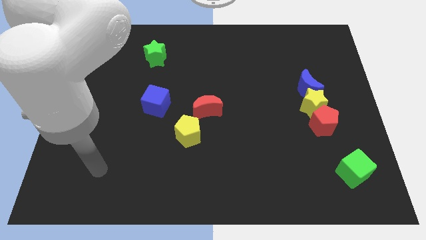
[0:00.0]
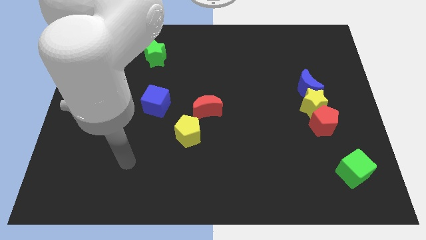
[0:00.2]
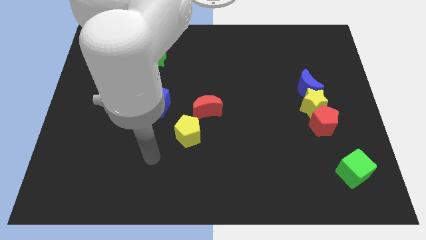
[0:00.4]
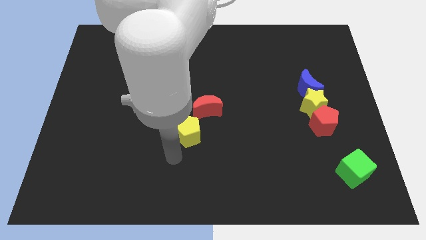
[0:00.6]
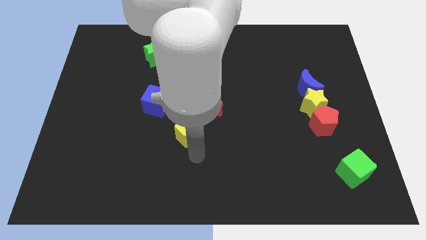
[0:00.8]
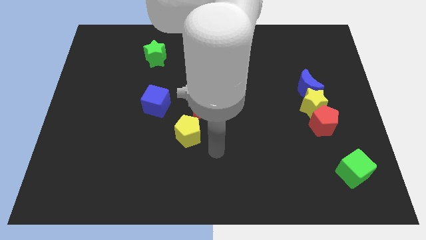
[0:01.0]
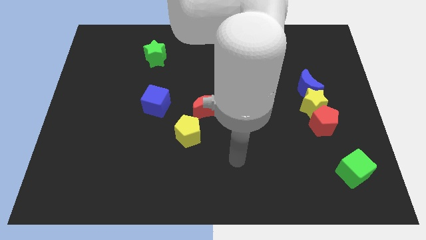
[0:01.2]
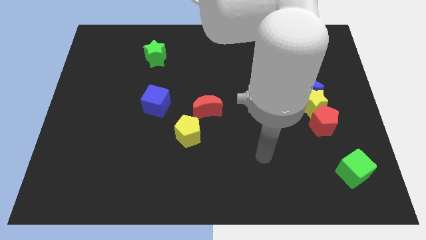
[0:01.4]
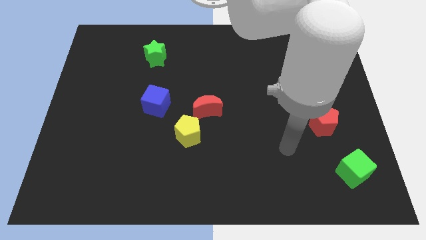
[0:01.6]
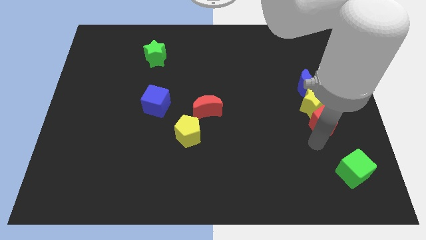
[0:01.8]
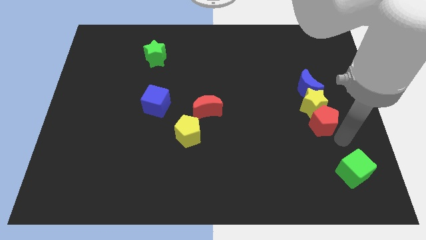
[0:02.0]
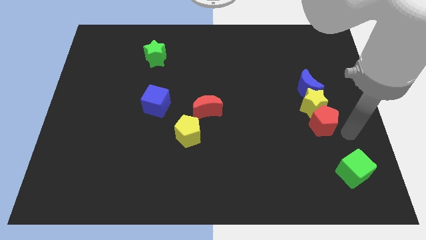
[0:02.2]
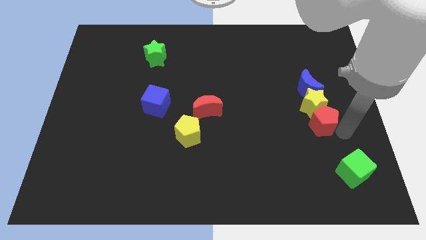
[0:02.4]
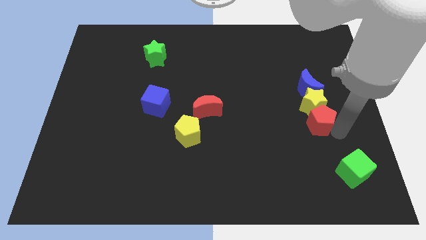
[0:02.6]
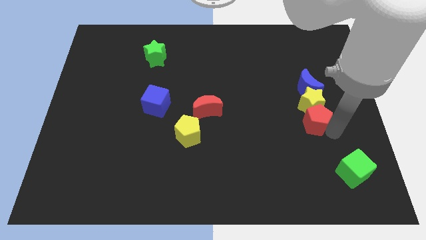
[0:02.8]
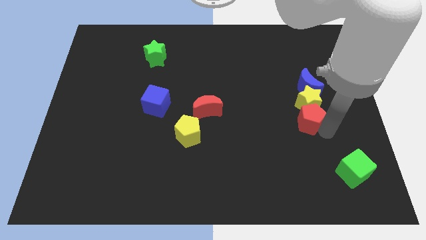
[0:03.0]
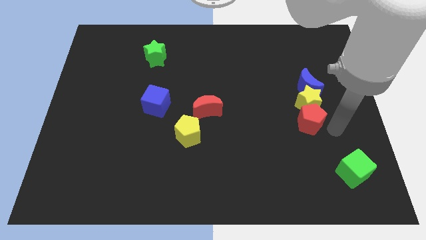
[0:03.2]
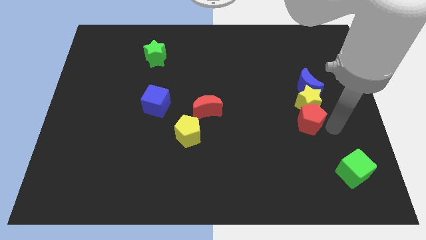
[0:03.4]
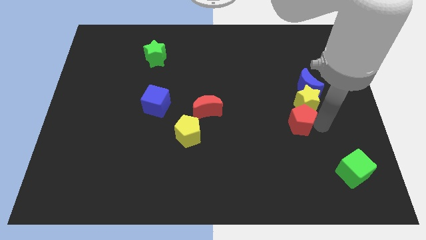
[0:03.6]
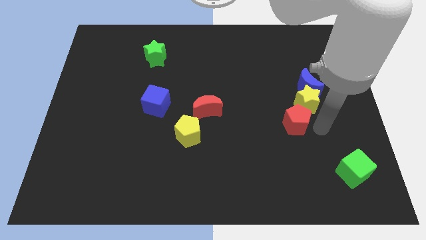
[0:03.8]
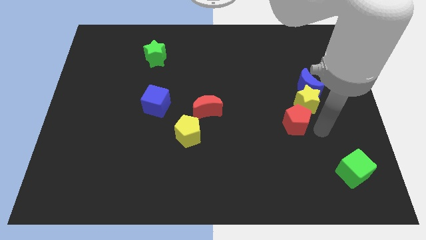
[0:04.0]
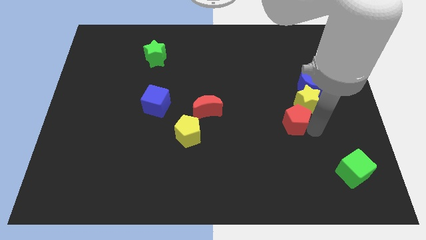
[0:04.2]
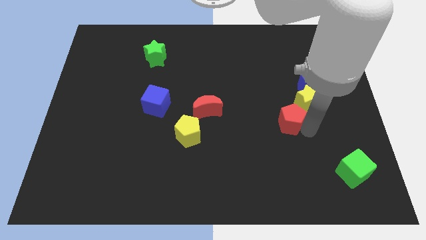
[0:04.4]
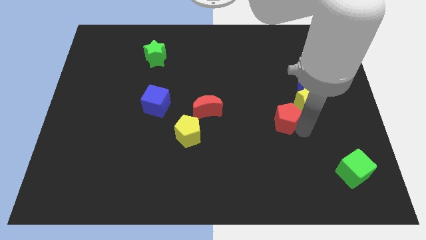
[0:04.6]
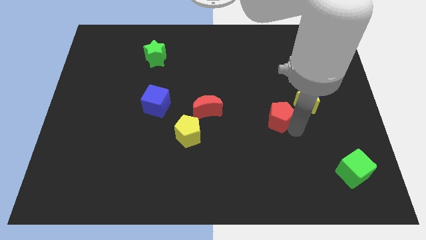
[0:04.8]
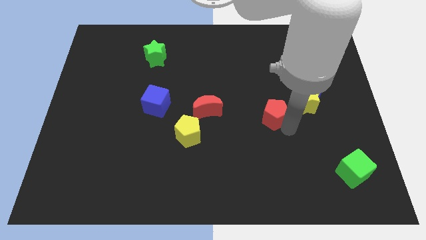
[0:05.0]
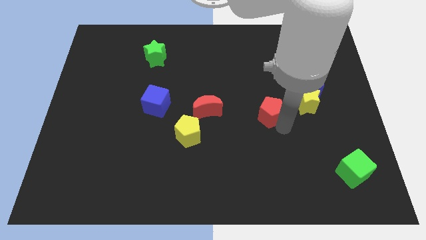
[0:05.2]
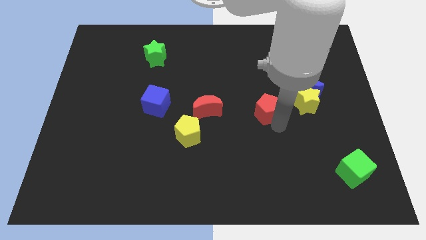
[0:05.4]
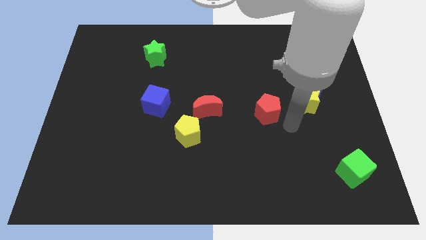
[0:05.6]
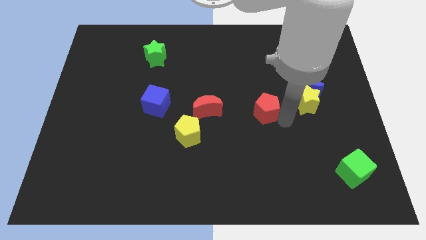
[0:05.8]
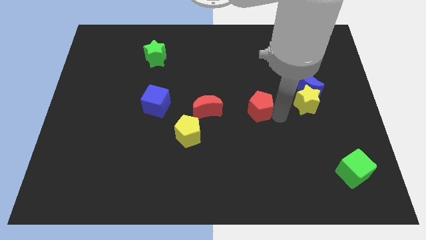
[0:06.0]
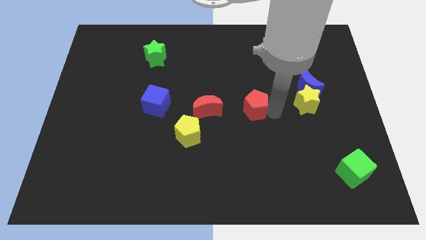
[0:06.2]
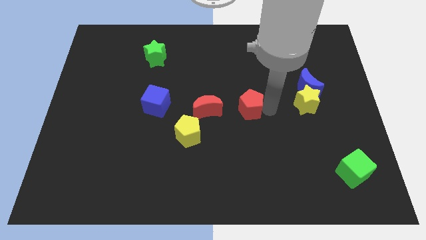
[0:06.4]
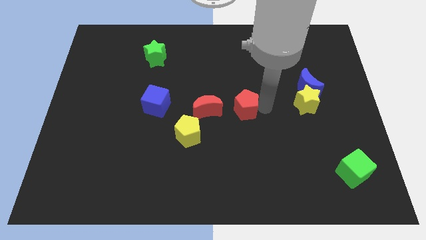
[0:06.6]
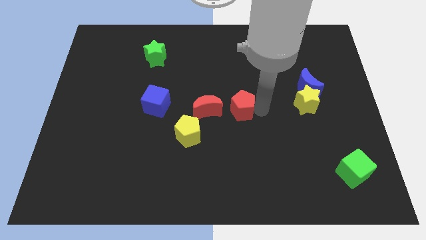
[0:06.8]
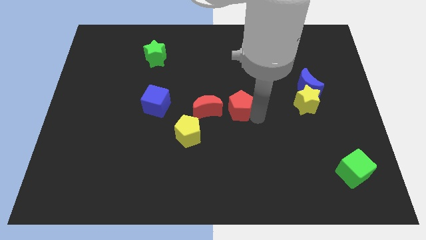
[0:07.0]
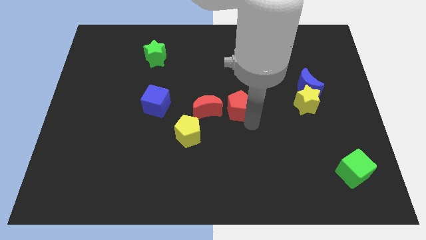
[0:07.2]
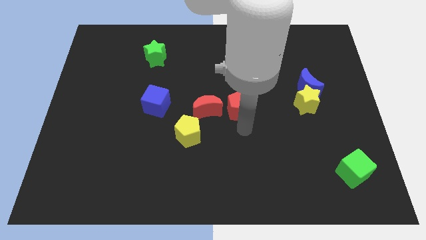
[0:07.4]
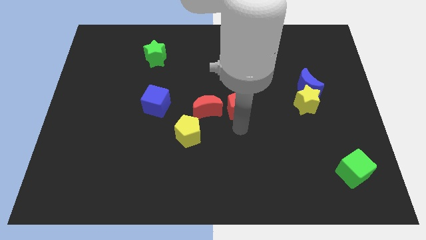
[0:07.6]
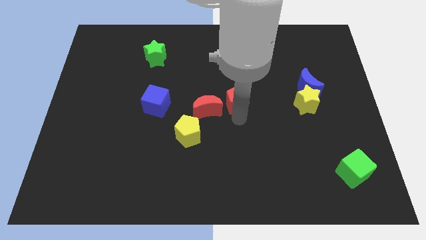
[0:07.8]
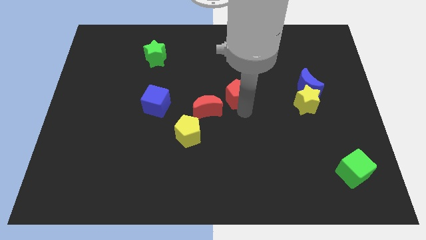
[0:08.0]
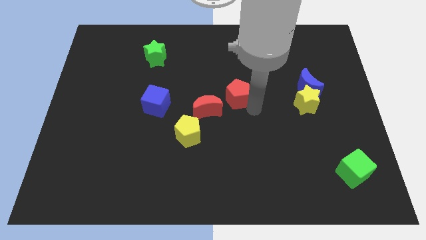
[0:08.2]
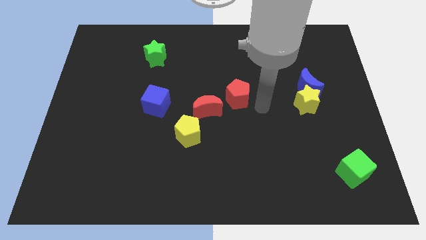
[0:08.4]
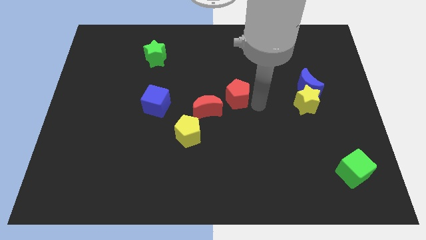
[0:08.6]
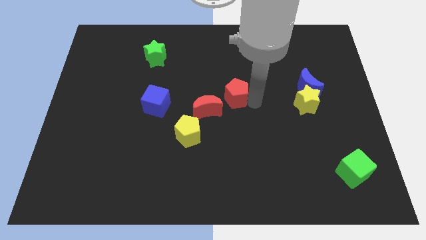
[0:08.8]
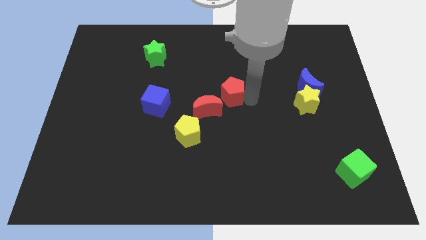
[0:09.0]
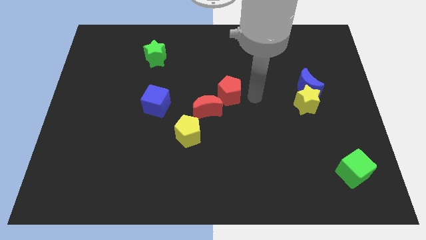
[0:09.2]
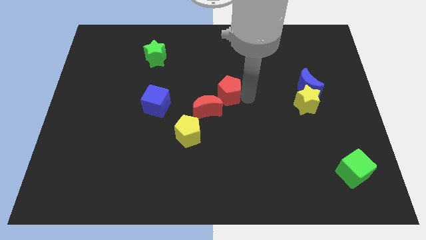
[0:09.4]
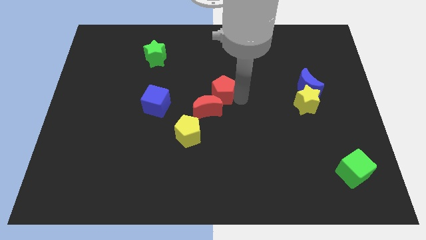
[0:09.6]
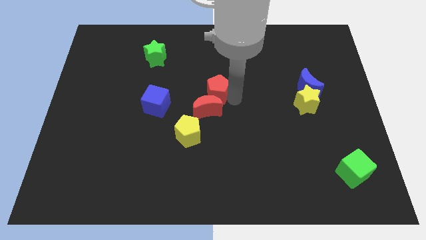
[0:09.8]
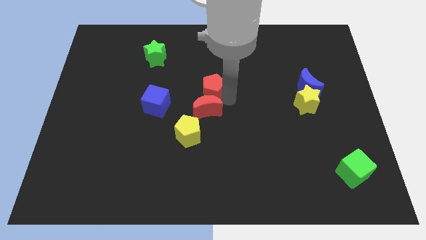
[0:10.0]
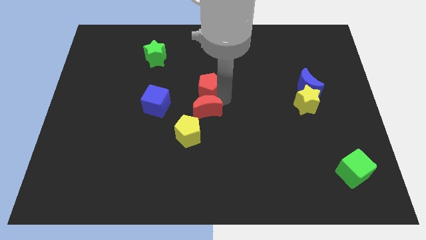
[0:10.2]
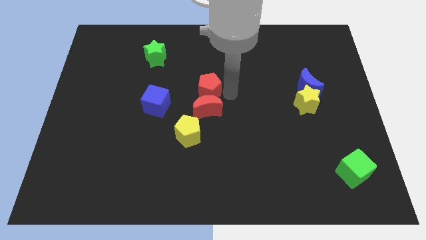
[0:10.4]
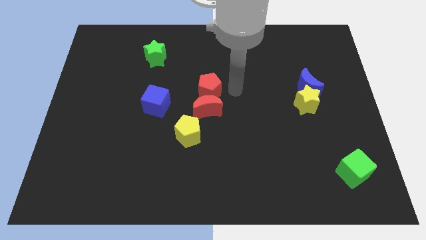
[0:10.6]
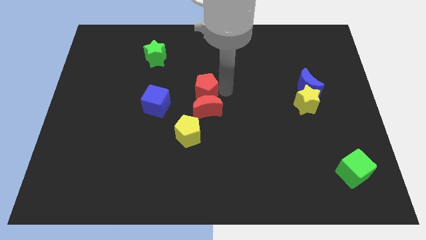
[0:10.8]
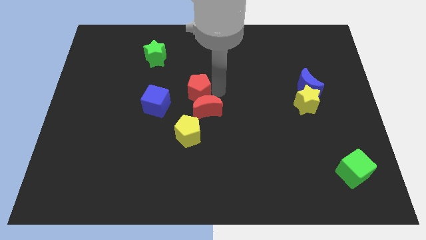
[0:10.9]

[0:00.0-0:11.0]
put the red pentagon to the top right of the blue cube

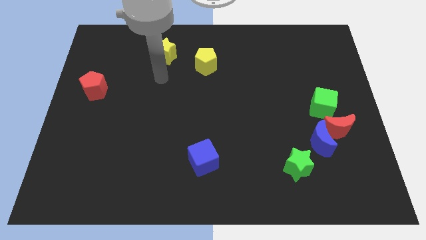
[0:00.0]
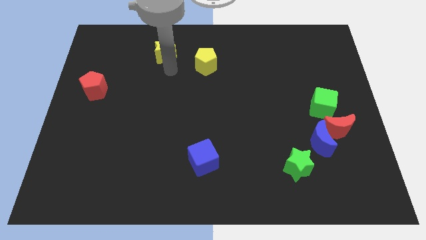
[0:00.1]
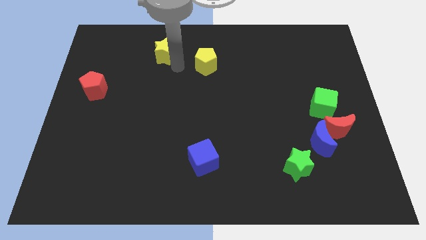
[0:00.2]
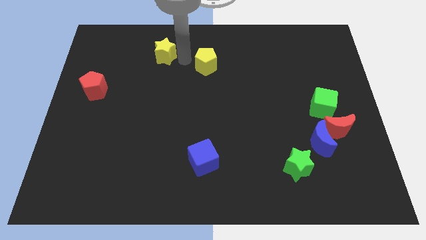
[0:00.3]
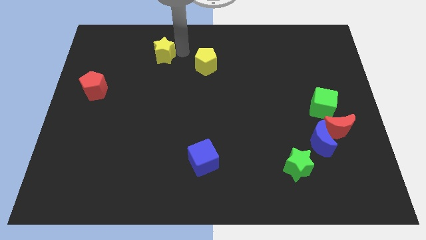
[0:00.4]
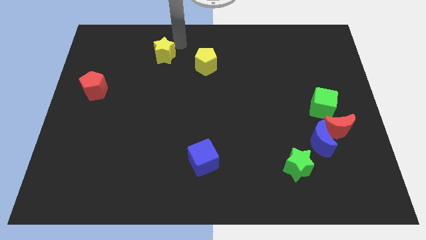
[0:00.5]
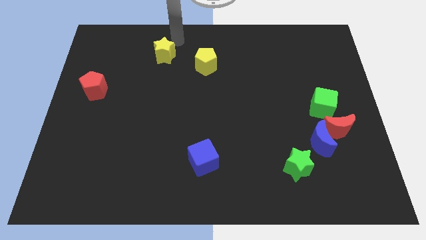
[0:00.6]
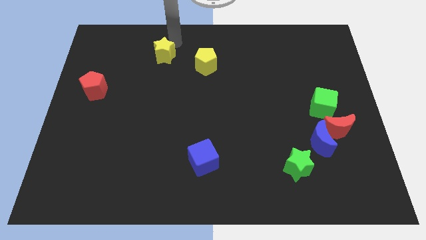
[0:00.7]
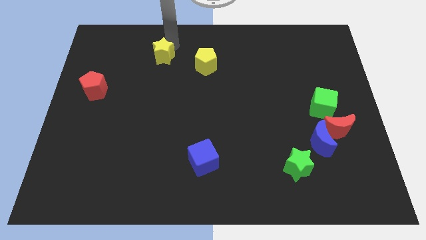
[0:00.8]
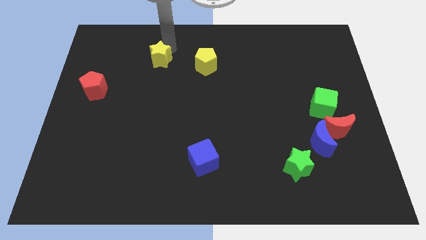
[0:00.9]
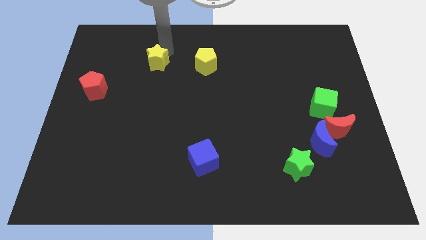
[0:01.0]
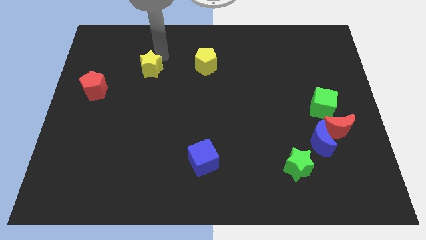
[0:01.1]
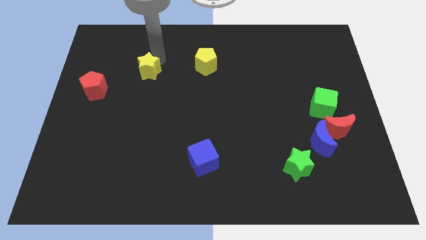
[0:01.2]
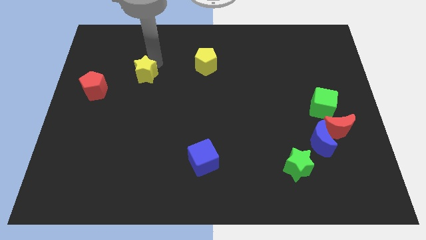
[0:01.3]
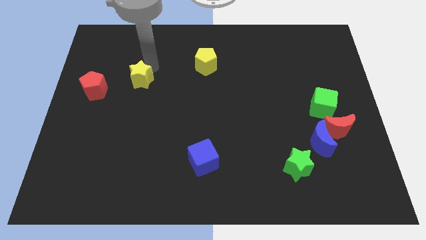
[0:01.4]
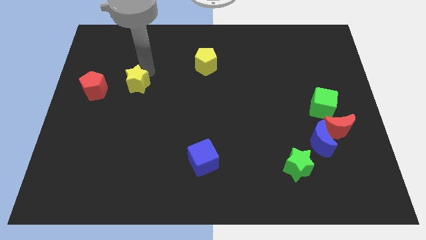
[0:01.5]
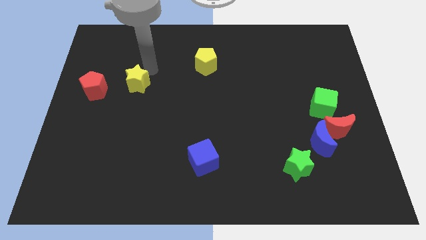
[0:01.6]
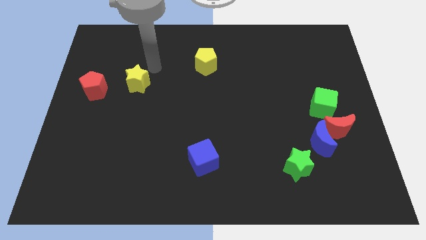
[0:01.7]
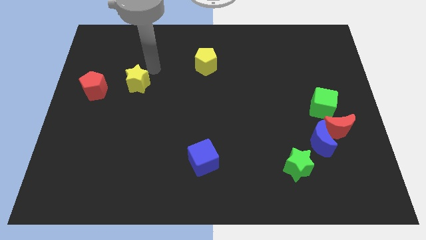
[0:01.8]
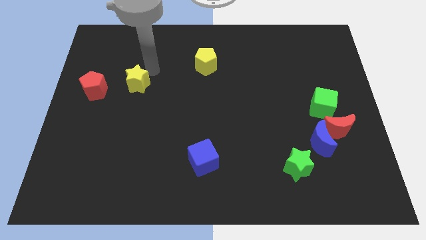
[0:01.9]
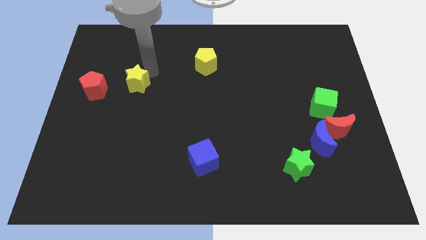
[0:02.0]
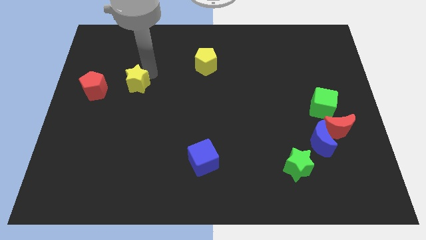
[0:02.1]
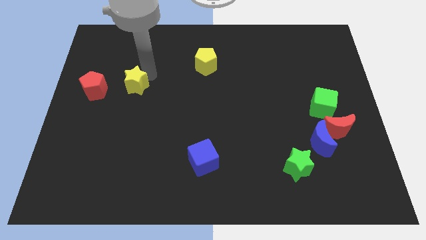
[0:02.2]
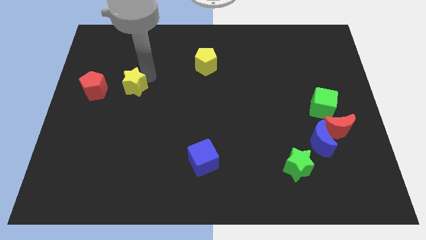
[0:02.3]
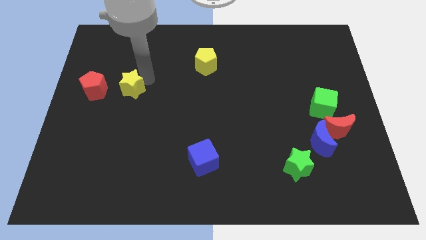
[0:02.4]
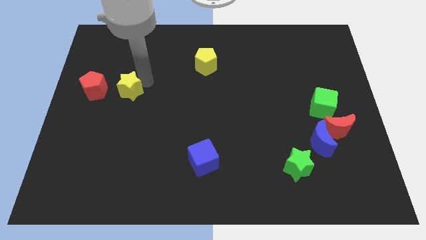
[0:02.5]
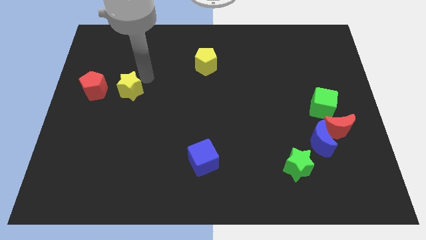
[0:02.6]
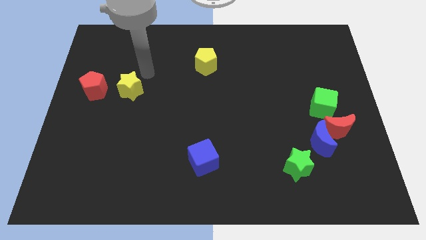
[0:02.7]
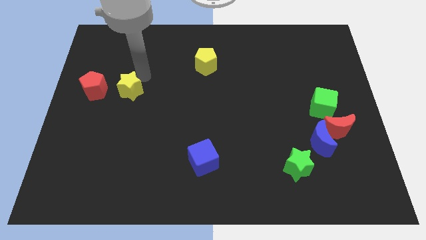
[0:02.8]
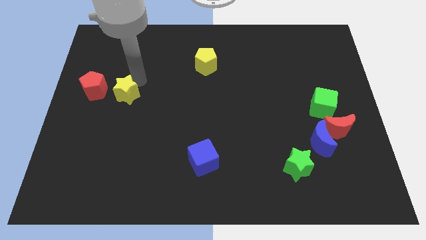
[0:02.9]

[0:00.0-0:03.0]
slide the yellow star to the bottom right of the red pentagon
